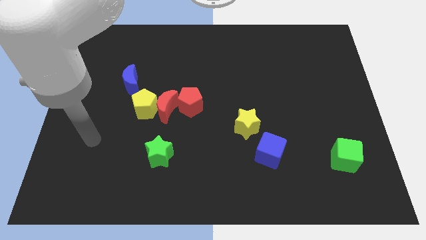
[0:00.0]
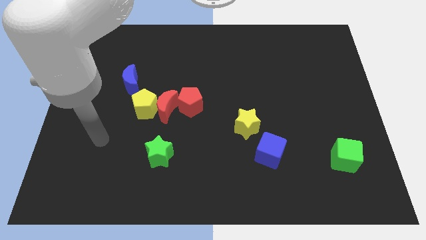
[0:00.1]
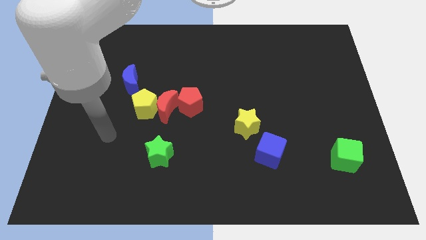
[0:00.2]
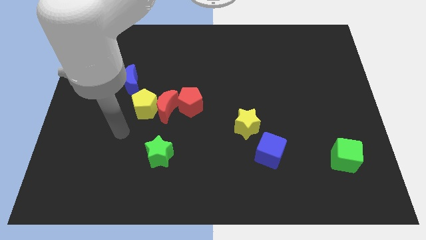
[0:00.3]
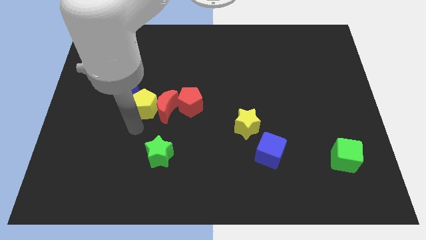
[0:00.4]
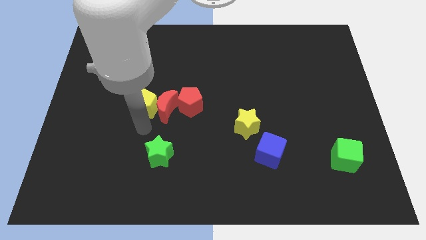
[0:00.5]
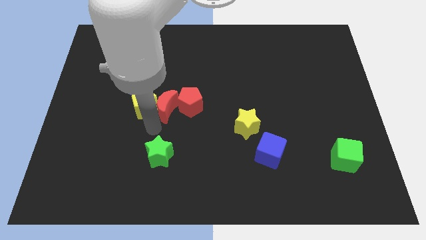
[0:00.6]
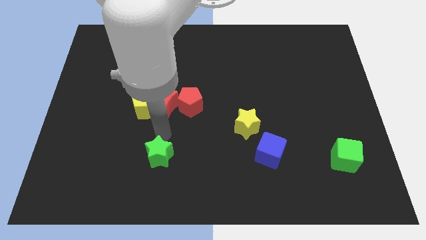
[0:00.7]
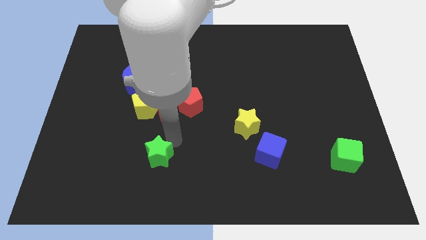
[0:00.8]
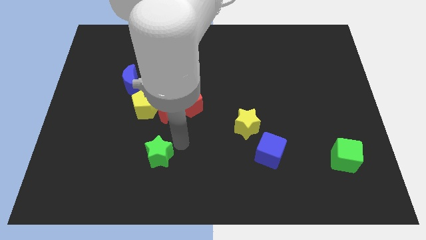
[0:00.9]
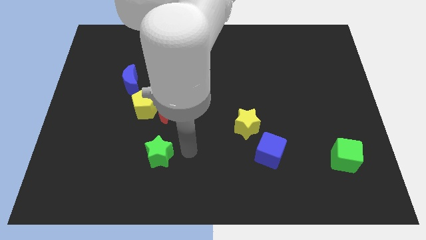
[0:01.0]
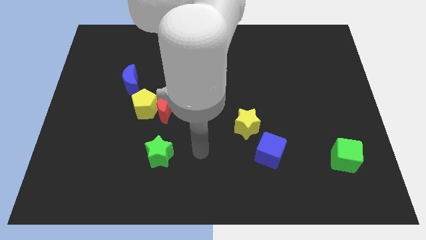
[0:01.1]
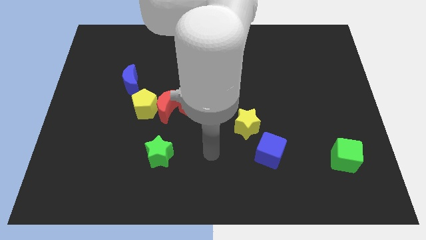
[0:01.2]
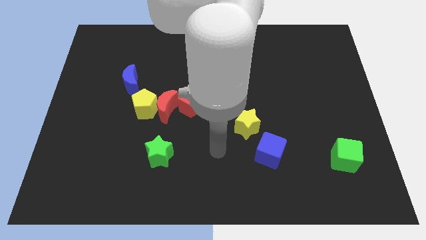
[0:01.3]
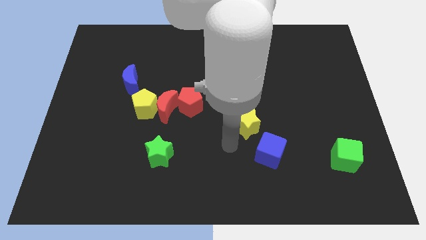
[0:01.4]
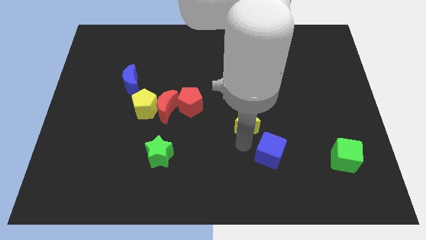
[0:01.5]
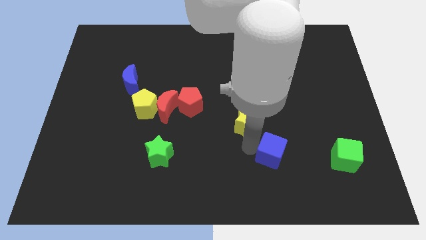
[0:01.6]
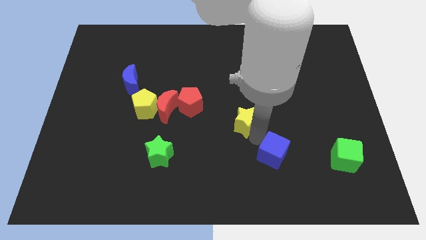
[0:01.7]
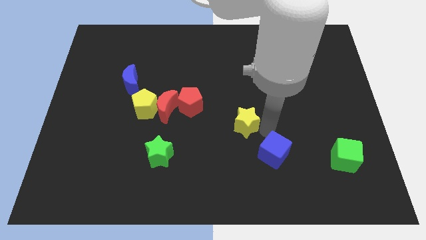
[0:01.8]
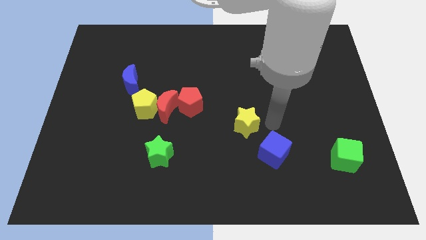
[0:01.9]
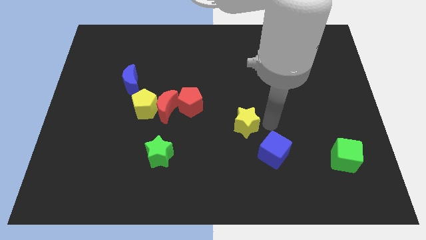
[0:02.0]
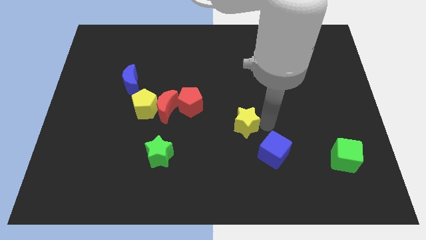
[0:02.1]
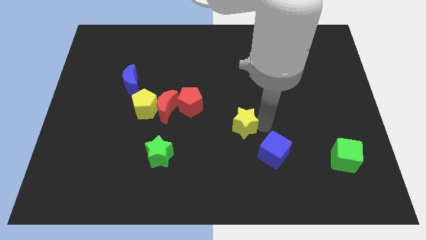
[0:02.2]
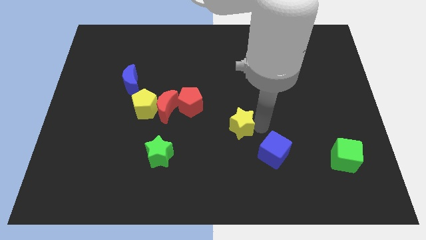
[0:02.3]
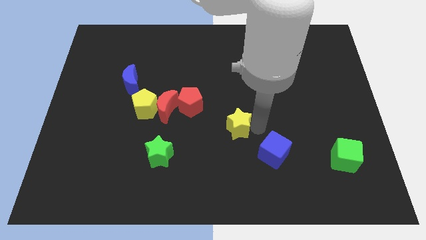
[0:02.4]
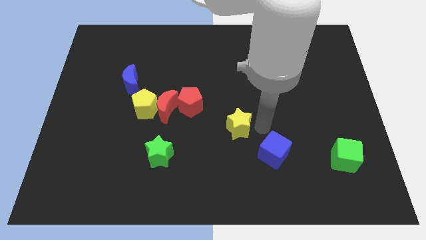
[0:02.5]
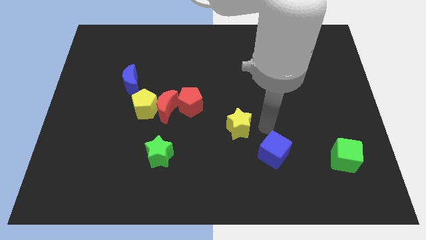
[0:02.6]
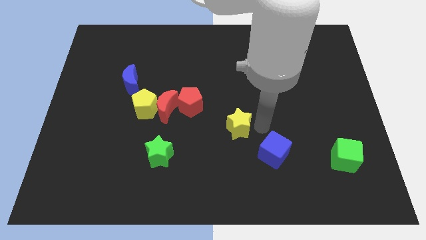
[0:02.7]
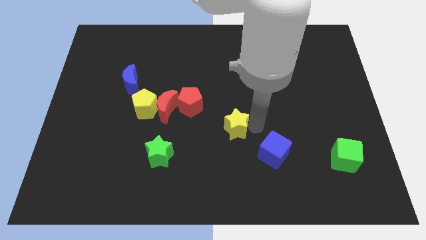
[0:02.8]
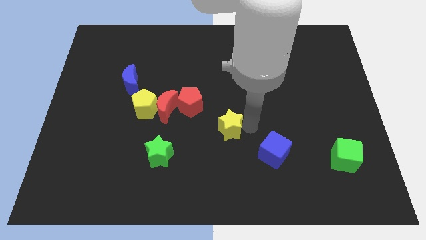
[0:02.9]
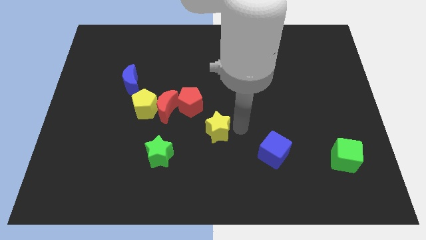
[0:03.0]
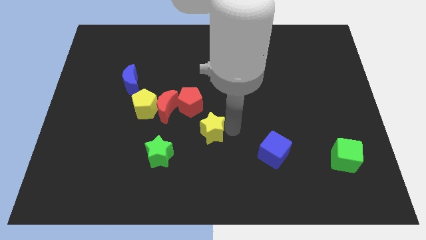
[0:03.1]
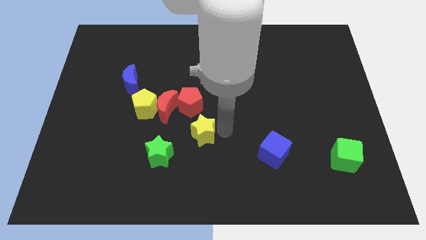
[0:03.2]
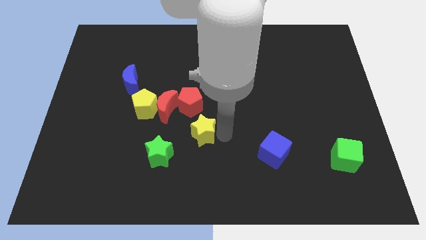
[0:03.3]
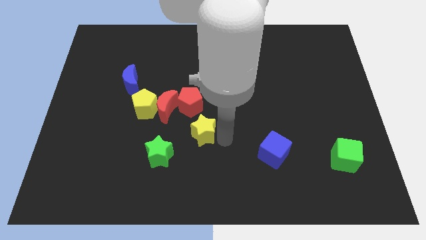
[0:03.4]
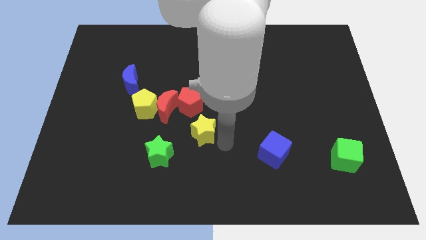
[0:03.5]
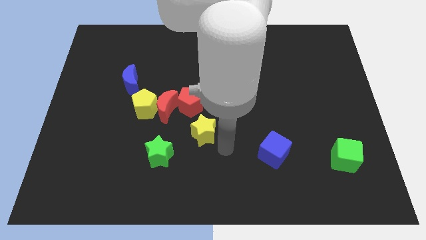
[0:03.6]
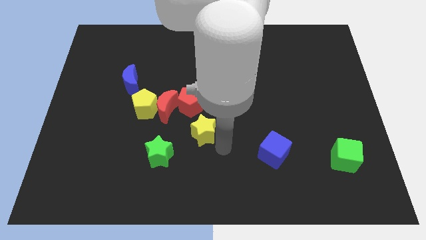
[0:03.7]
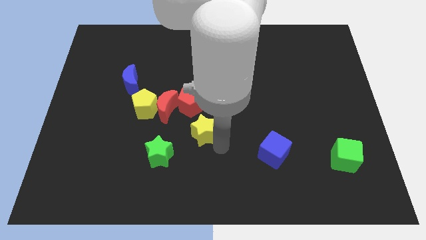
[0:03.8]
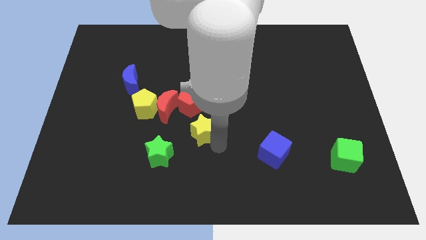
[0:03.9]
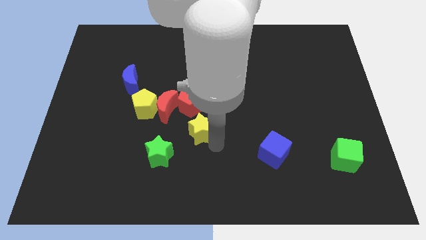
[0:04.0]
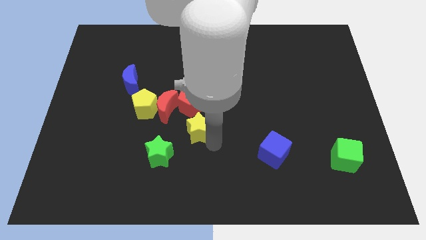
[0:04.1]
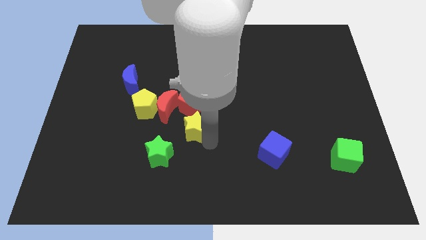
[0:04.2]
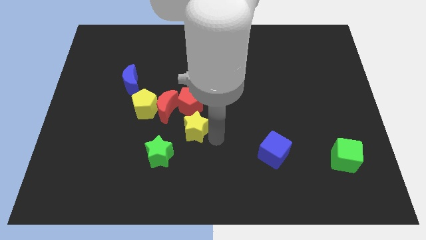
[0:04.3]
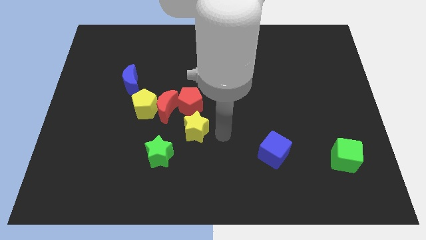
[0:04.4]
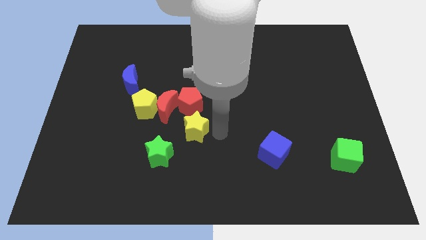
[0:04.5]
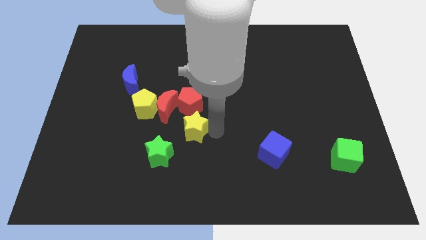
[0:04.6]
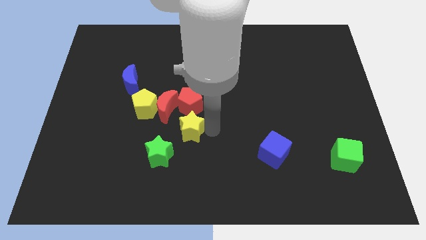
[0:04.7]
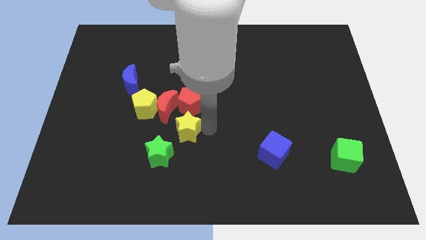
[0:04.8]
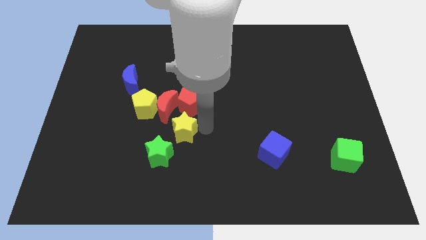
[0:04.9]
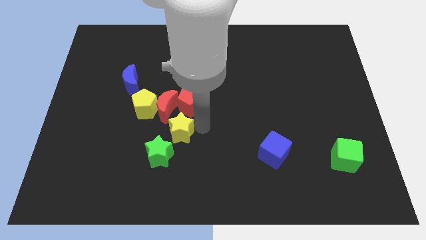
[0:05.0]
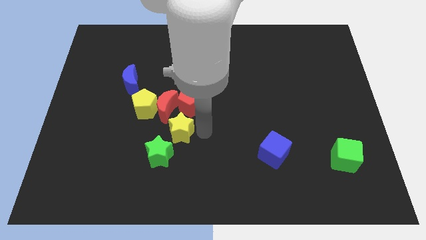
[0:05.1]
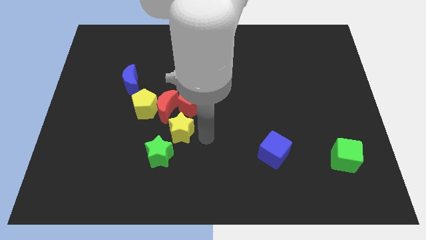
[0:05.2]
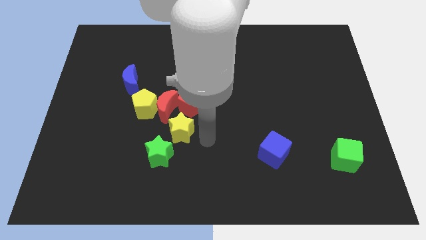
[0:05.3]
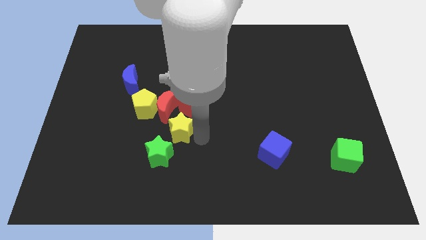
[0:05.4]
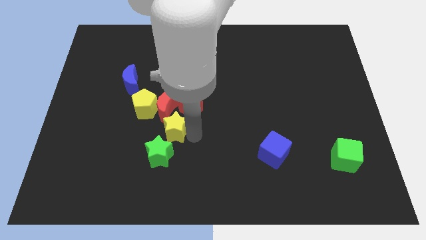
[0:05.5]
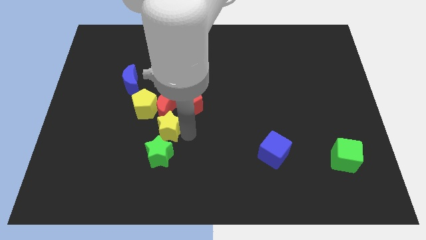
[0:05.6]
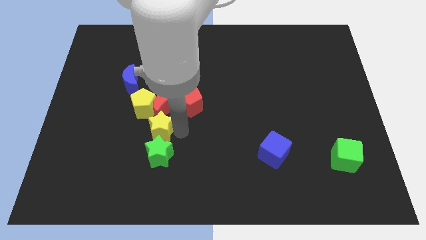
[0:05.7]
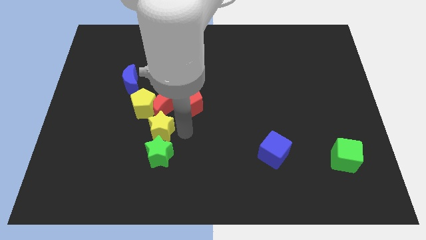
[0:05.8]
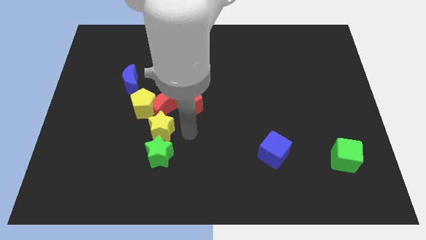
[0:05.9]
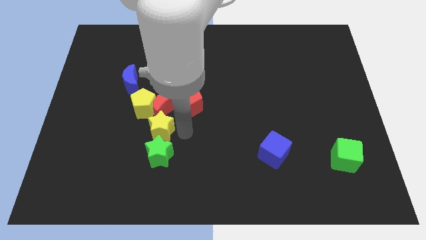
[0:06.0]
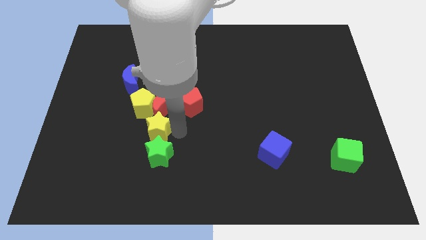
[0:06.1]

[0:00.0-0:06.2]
push the yellow star to the left

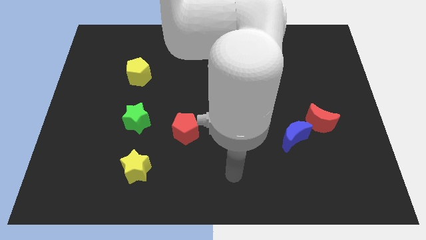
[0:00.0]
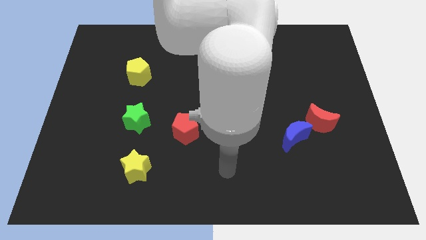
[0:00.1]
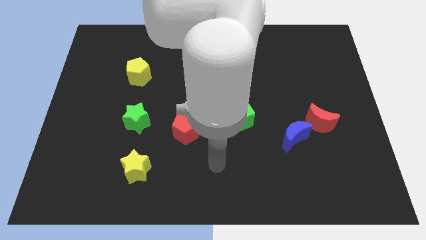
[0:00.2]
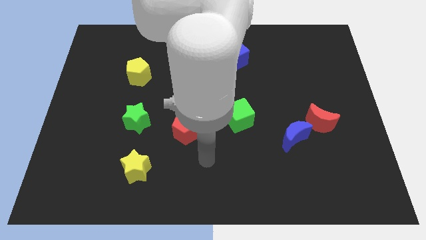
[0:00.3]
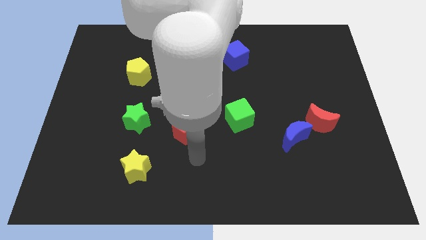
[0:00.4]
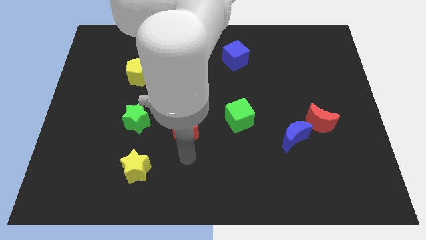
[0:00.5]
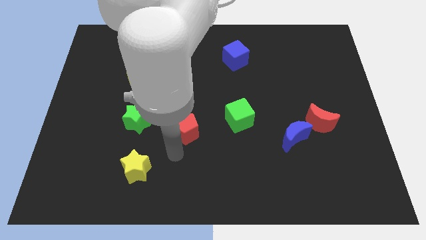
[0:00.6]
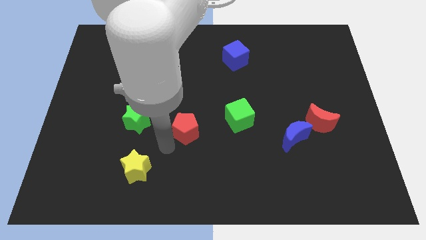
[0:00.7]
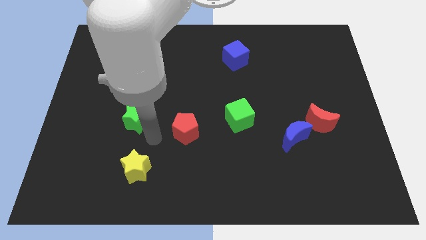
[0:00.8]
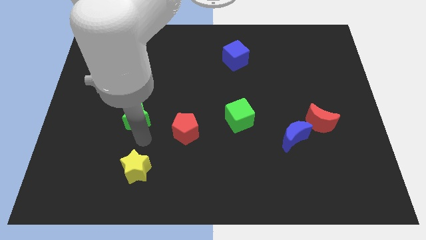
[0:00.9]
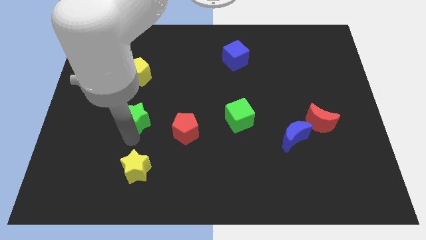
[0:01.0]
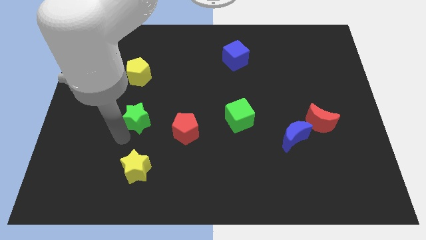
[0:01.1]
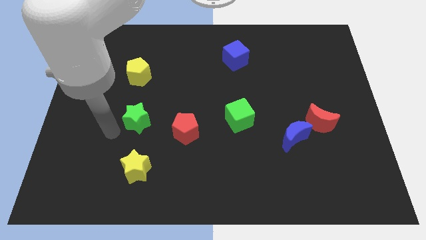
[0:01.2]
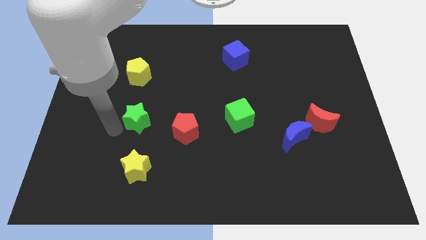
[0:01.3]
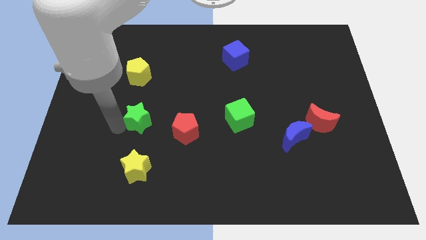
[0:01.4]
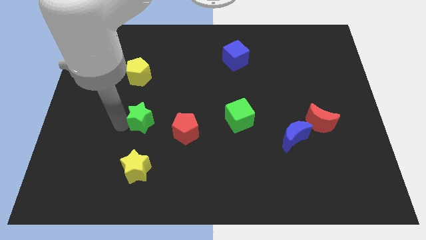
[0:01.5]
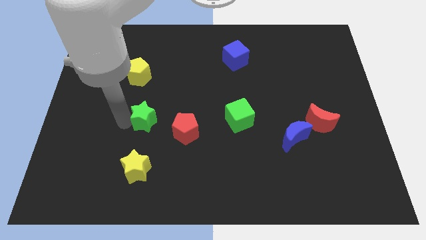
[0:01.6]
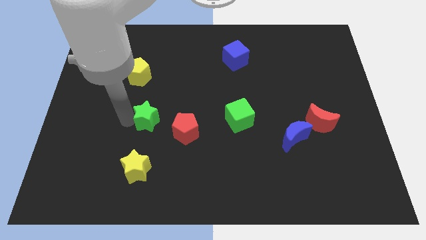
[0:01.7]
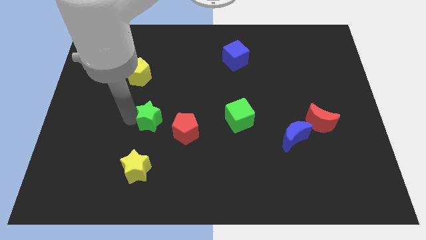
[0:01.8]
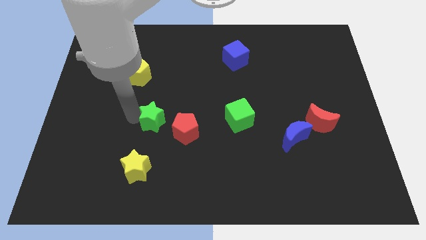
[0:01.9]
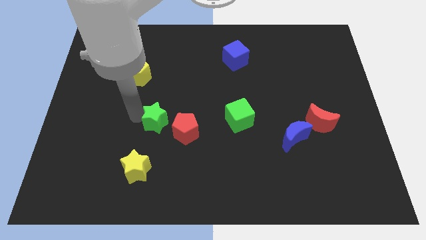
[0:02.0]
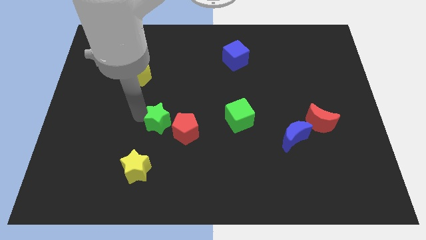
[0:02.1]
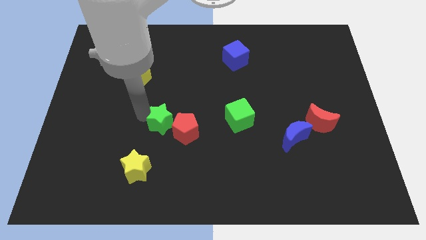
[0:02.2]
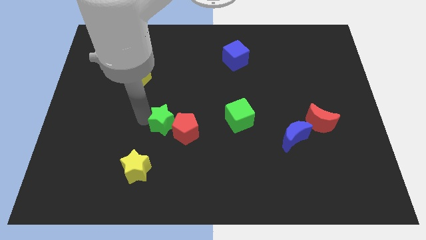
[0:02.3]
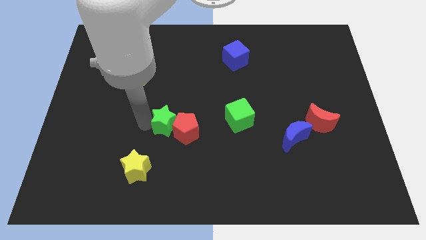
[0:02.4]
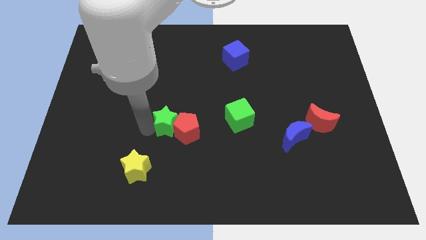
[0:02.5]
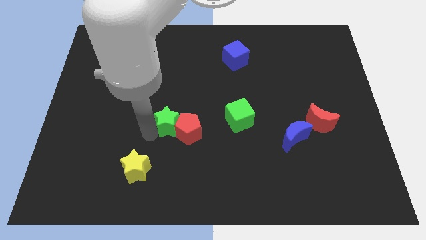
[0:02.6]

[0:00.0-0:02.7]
move the green star right a bit
